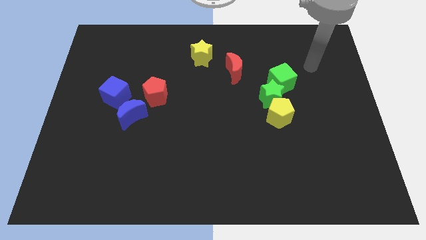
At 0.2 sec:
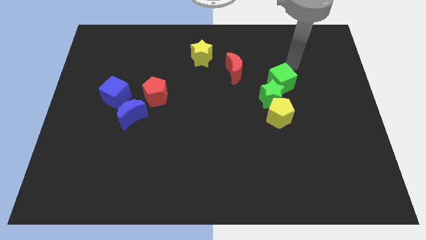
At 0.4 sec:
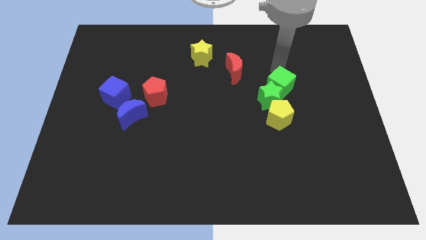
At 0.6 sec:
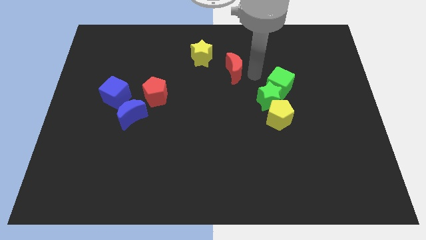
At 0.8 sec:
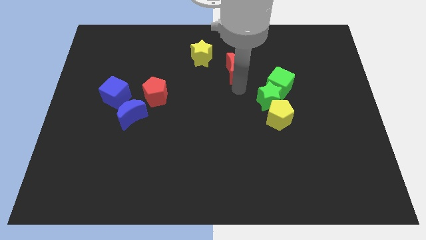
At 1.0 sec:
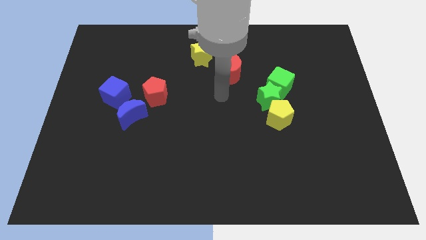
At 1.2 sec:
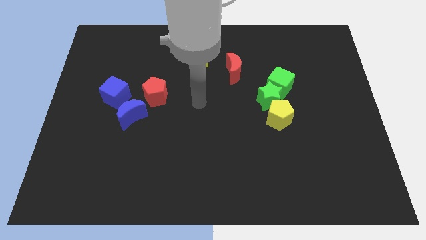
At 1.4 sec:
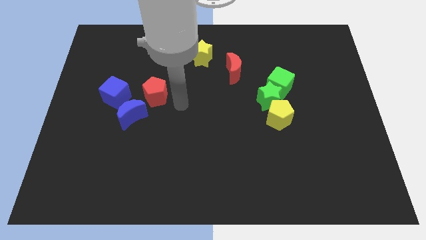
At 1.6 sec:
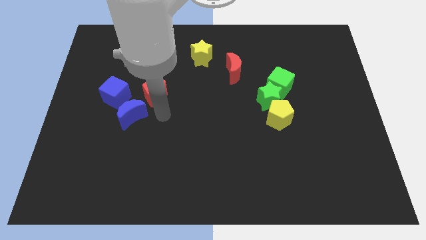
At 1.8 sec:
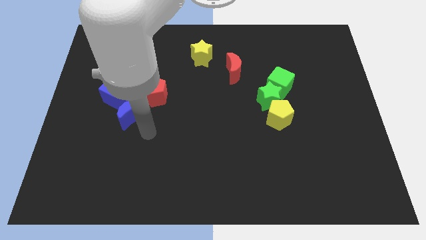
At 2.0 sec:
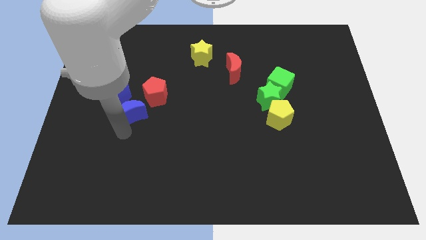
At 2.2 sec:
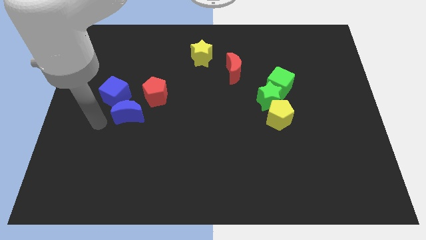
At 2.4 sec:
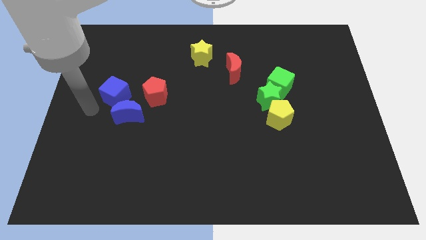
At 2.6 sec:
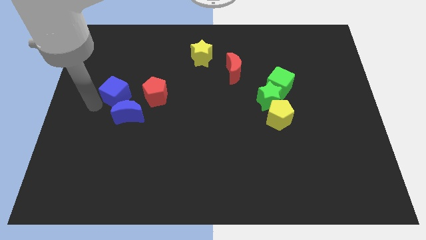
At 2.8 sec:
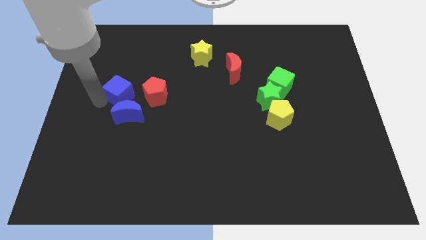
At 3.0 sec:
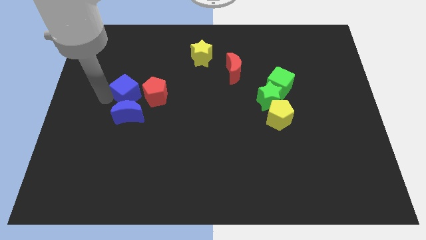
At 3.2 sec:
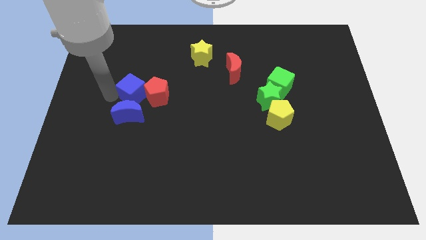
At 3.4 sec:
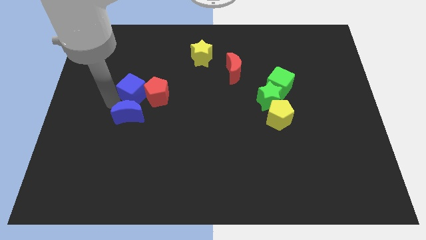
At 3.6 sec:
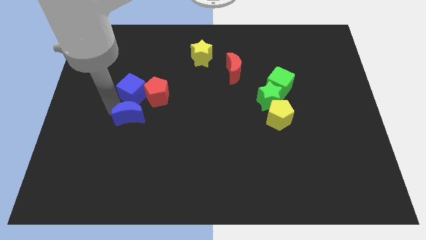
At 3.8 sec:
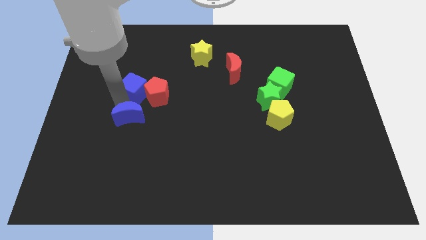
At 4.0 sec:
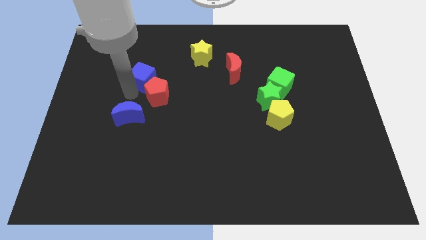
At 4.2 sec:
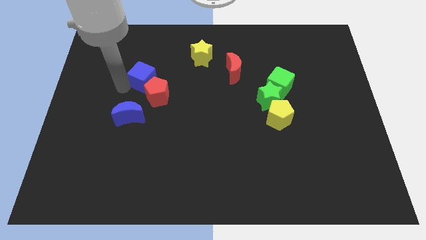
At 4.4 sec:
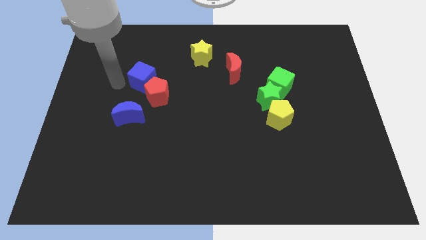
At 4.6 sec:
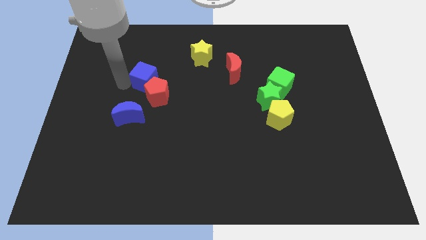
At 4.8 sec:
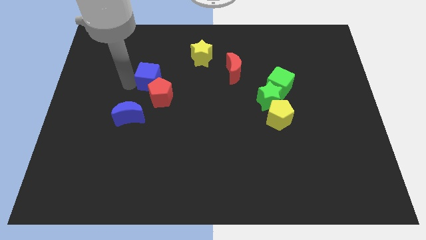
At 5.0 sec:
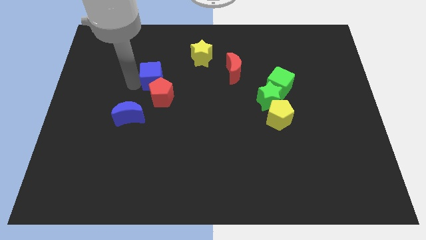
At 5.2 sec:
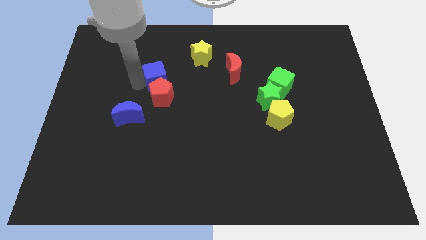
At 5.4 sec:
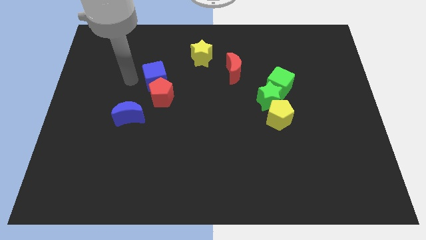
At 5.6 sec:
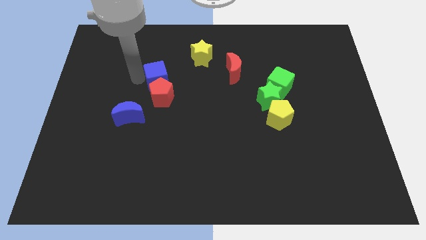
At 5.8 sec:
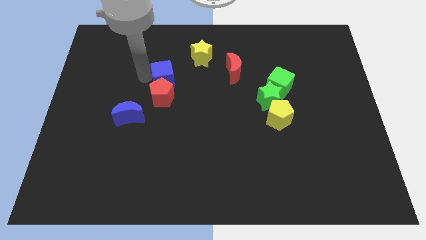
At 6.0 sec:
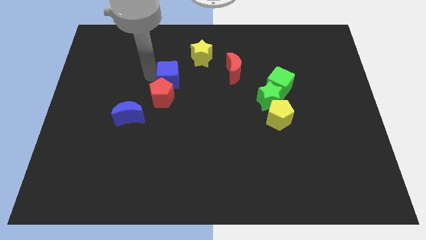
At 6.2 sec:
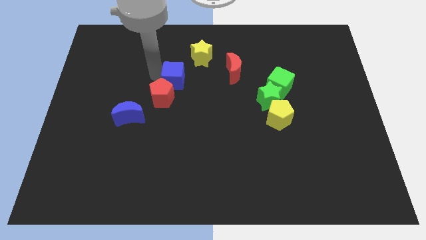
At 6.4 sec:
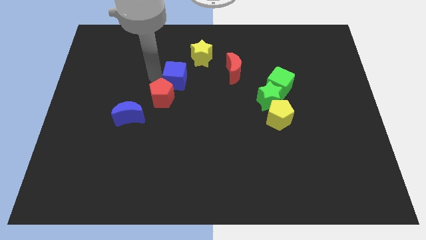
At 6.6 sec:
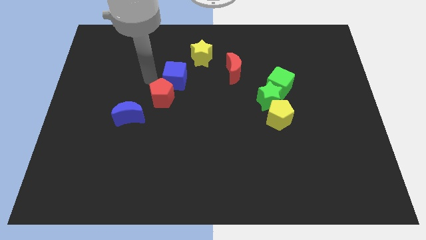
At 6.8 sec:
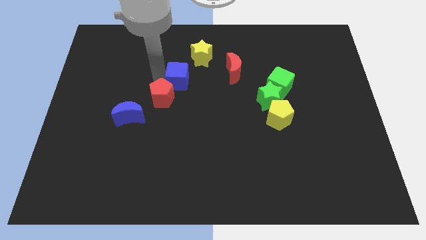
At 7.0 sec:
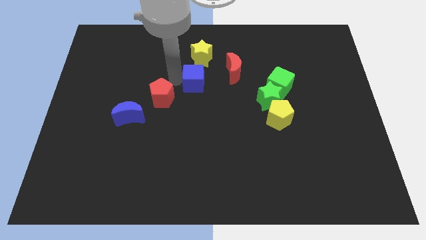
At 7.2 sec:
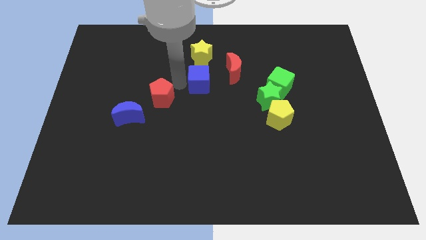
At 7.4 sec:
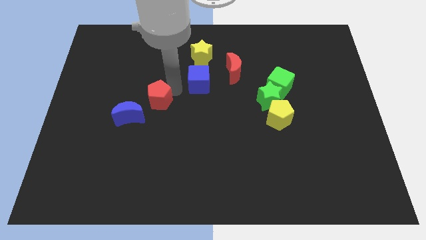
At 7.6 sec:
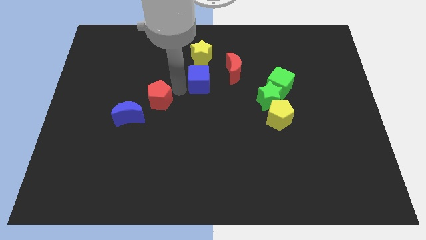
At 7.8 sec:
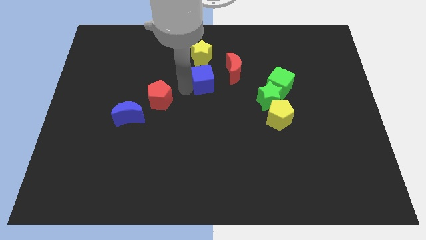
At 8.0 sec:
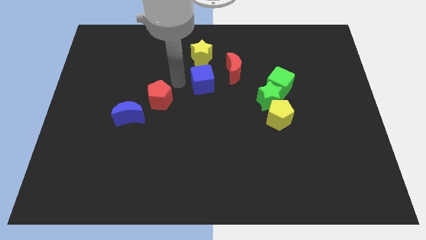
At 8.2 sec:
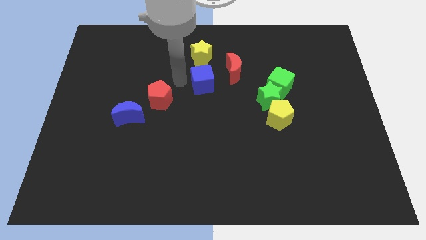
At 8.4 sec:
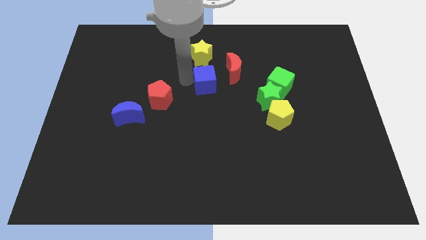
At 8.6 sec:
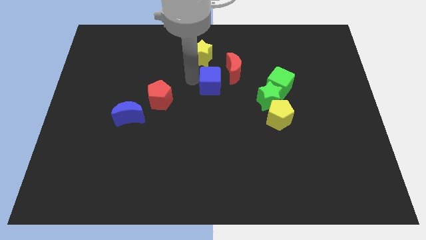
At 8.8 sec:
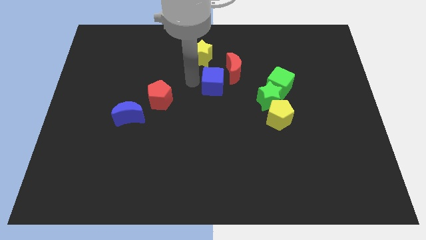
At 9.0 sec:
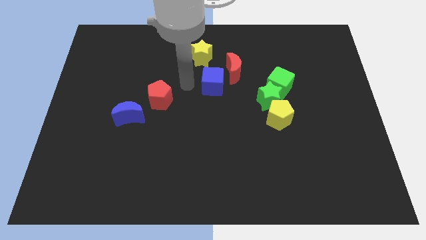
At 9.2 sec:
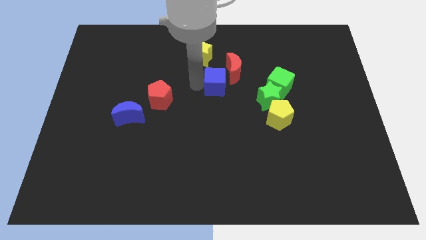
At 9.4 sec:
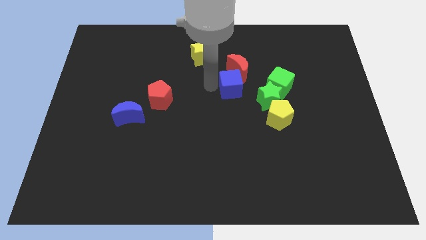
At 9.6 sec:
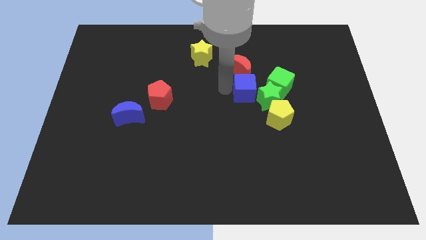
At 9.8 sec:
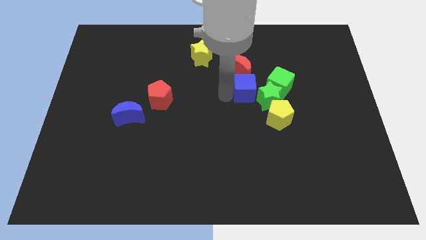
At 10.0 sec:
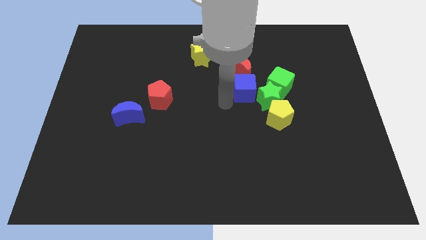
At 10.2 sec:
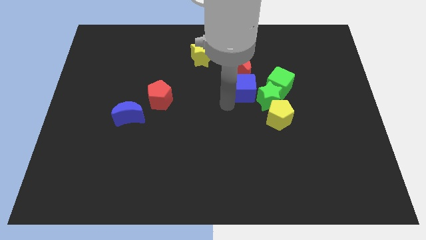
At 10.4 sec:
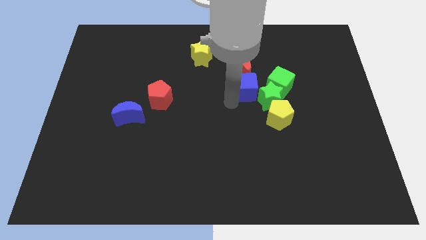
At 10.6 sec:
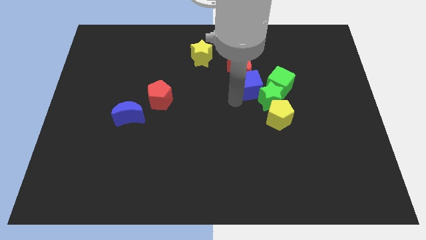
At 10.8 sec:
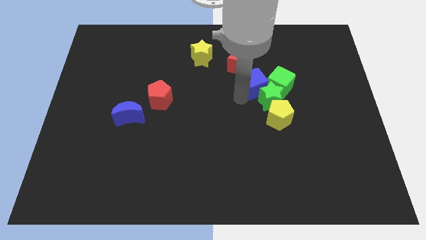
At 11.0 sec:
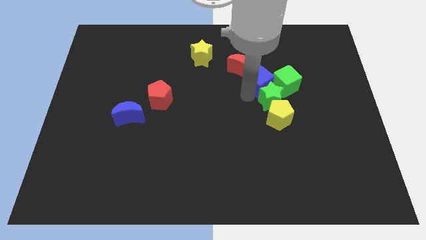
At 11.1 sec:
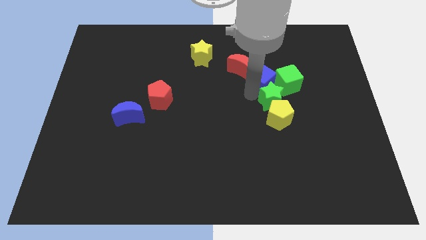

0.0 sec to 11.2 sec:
move the blue cube to the right side of the red moon

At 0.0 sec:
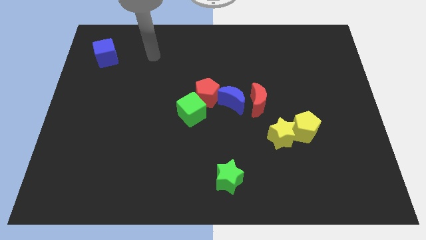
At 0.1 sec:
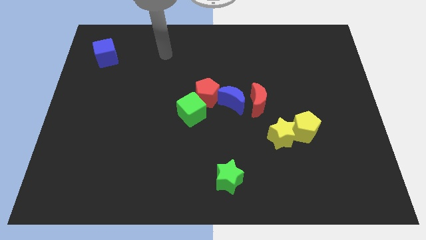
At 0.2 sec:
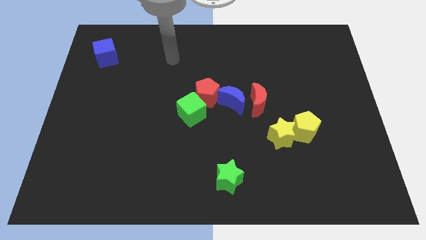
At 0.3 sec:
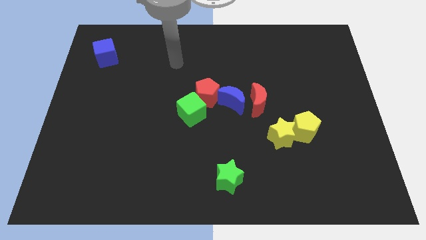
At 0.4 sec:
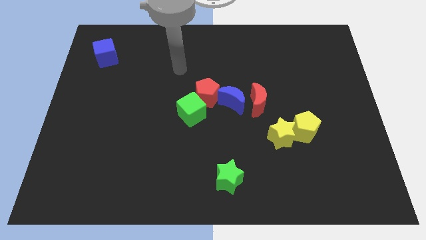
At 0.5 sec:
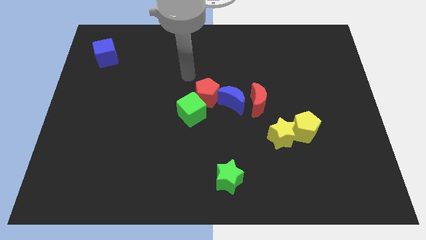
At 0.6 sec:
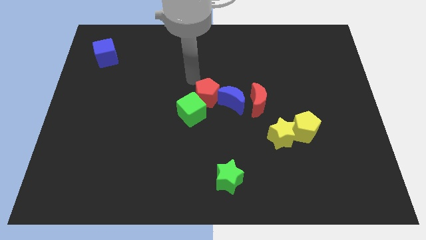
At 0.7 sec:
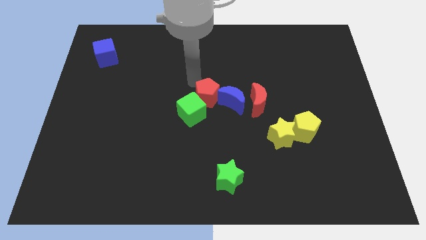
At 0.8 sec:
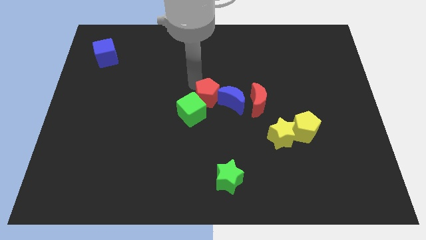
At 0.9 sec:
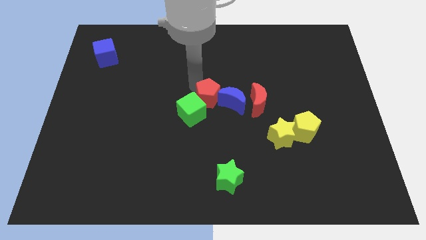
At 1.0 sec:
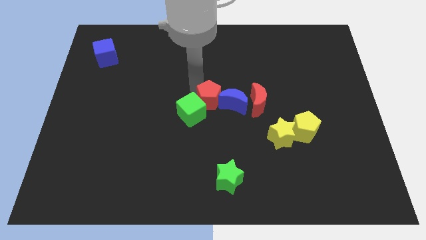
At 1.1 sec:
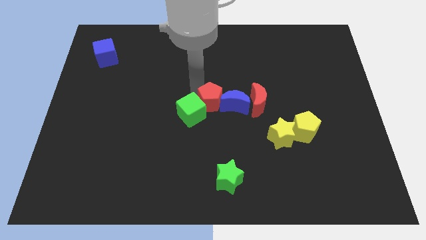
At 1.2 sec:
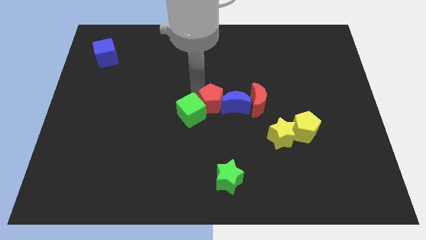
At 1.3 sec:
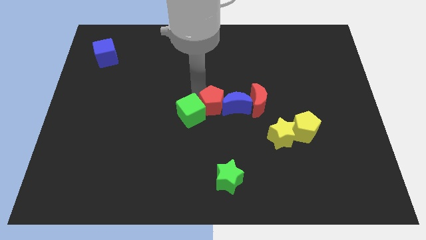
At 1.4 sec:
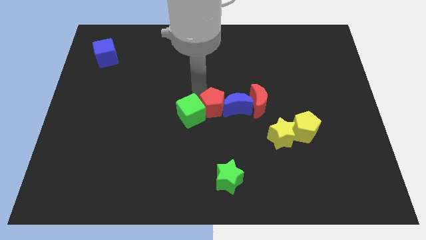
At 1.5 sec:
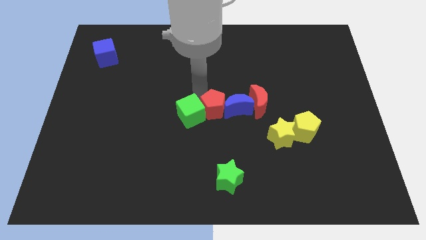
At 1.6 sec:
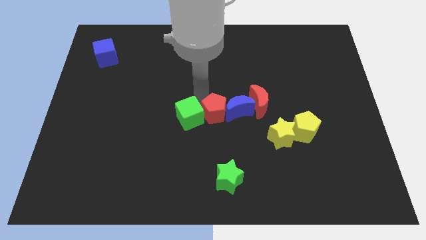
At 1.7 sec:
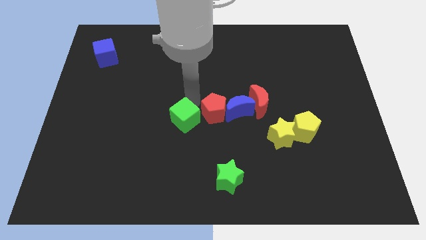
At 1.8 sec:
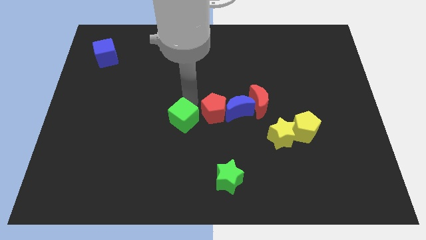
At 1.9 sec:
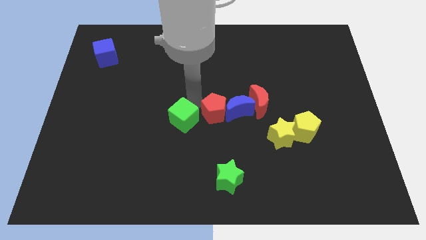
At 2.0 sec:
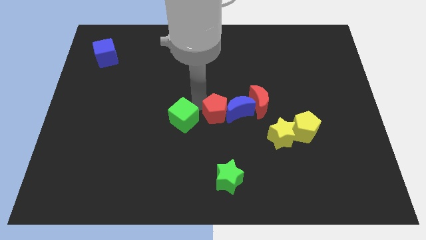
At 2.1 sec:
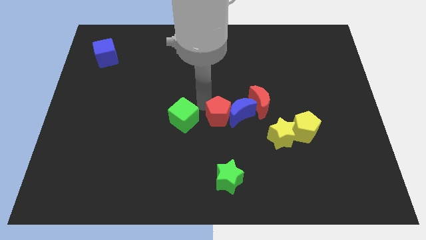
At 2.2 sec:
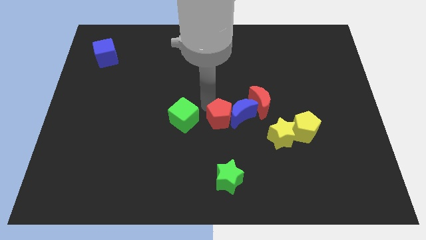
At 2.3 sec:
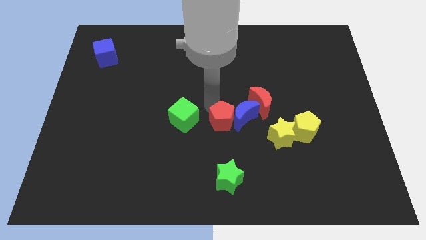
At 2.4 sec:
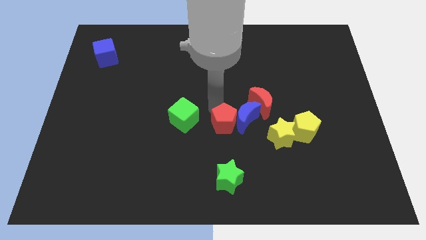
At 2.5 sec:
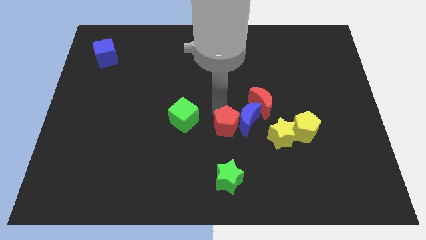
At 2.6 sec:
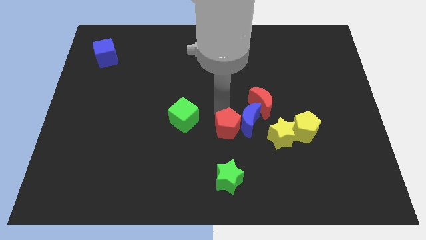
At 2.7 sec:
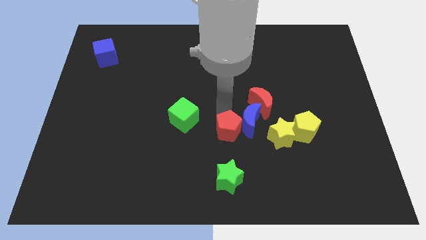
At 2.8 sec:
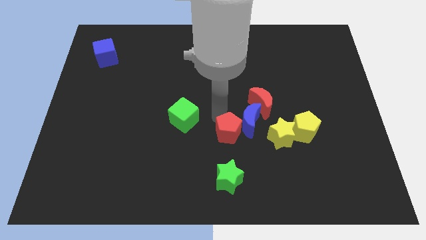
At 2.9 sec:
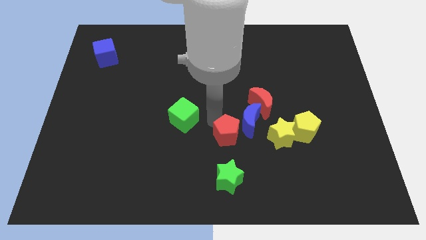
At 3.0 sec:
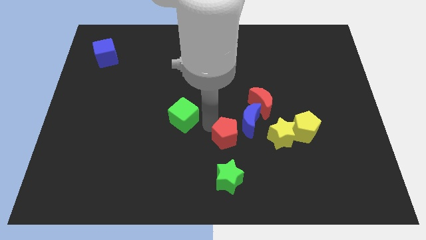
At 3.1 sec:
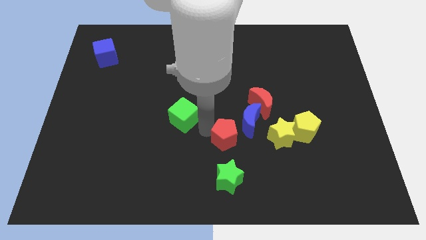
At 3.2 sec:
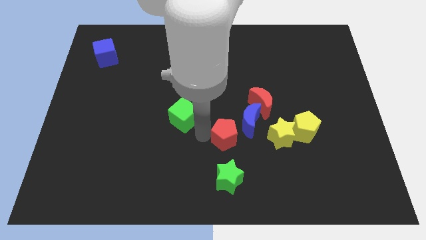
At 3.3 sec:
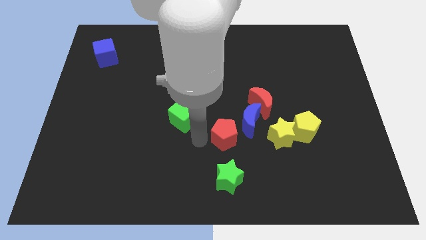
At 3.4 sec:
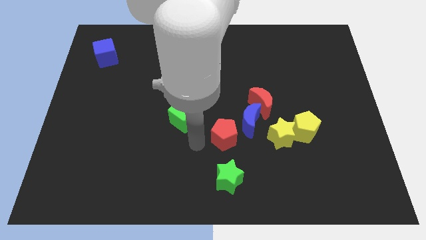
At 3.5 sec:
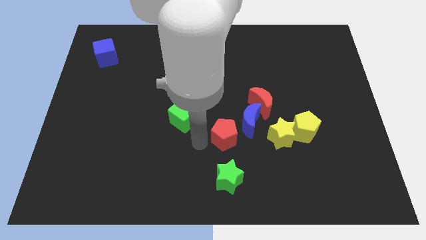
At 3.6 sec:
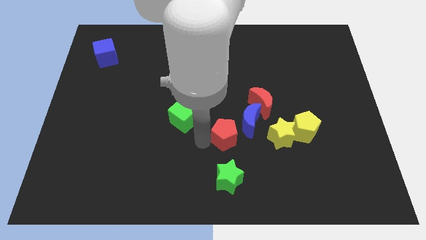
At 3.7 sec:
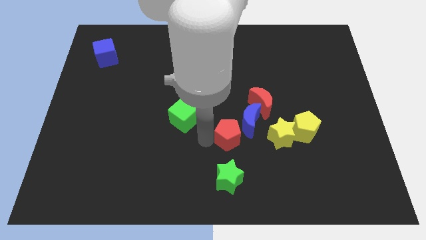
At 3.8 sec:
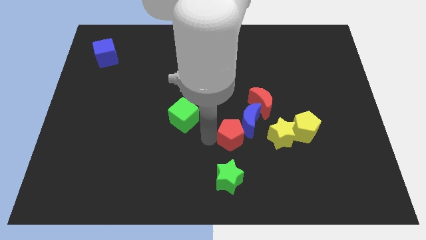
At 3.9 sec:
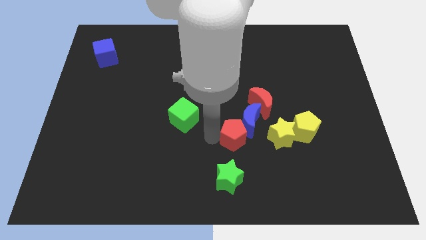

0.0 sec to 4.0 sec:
slide the red pentagon to the left side of the yellow pentagon
